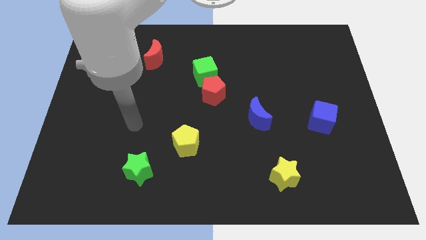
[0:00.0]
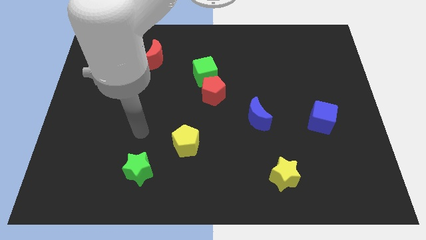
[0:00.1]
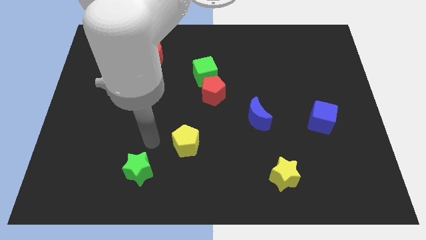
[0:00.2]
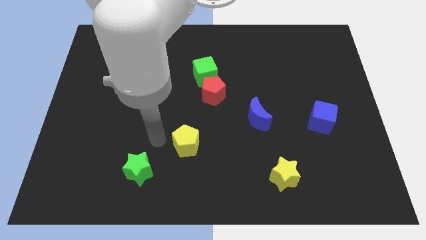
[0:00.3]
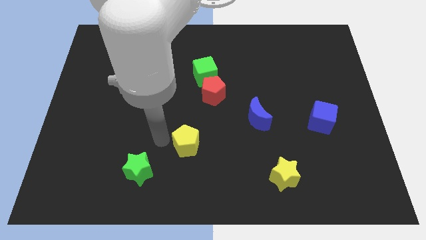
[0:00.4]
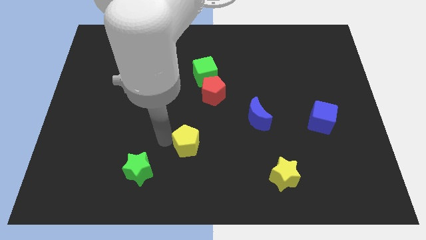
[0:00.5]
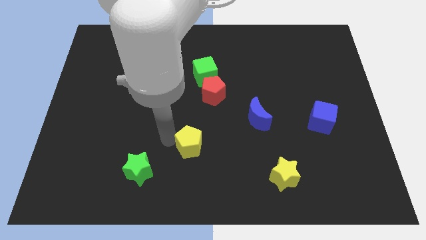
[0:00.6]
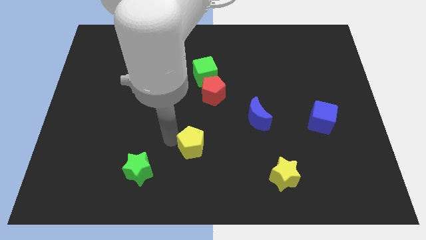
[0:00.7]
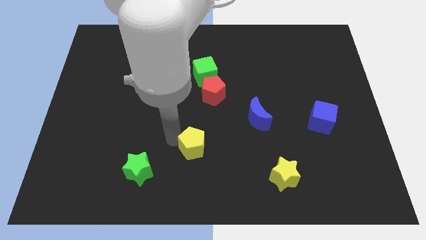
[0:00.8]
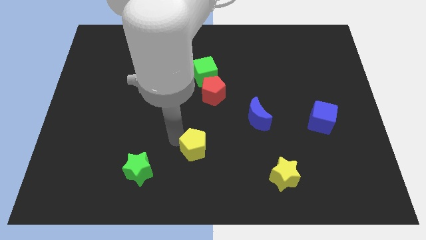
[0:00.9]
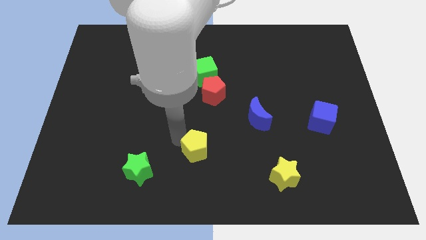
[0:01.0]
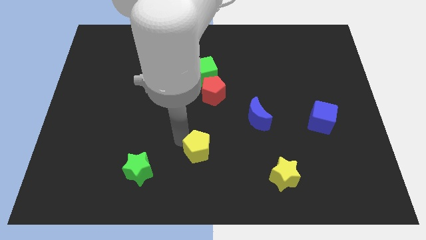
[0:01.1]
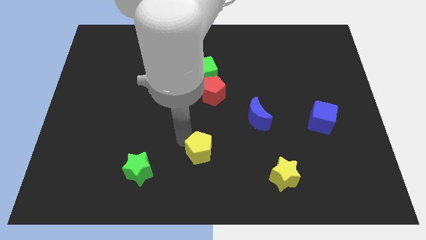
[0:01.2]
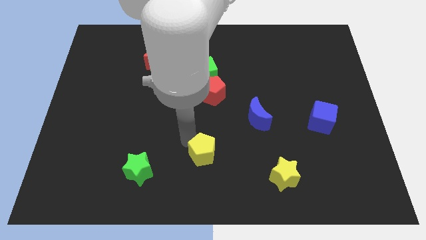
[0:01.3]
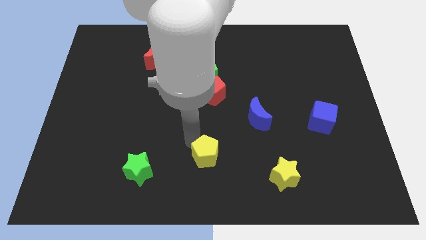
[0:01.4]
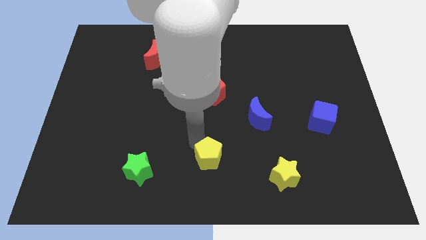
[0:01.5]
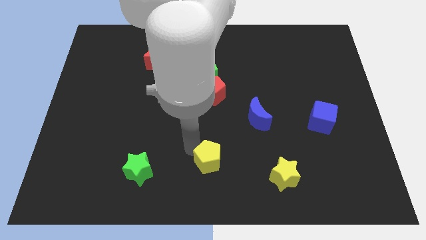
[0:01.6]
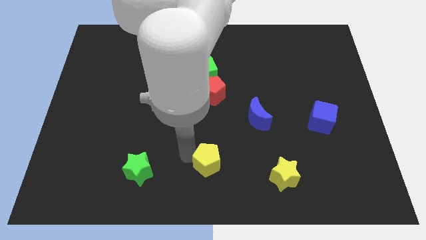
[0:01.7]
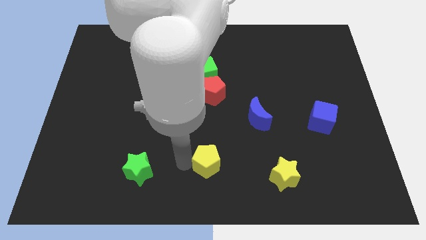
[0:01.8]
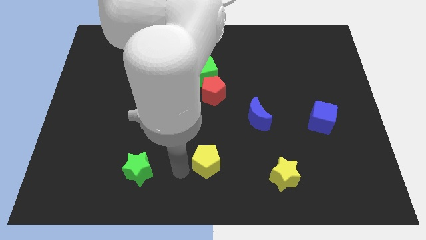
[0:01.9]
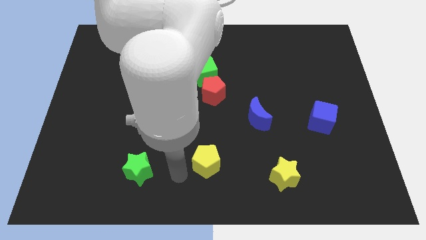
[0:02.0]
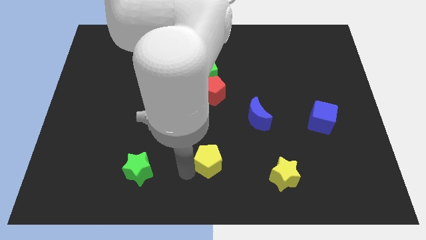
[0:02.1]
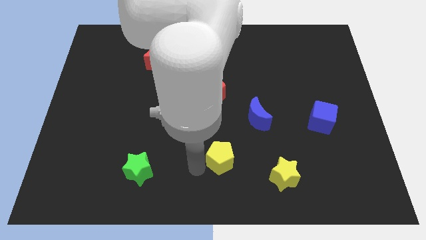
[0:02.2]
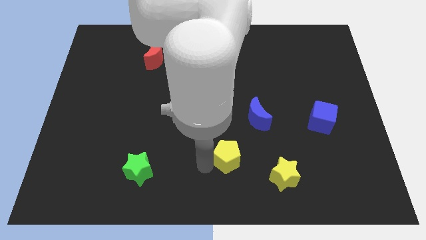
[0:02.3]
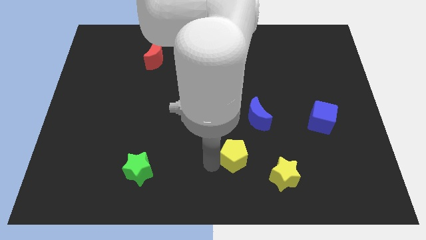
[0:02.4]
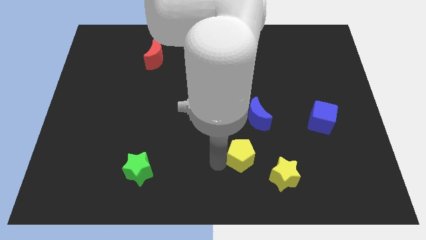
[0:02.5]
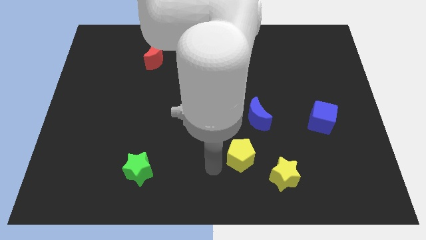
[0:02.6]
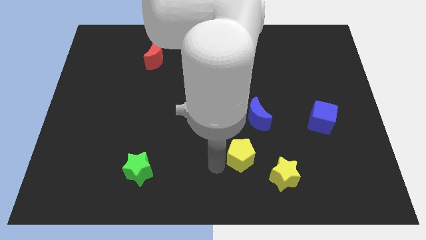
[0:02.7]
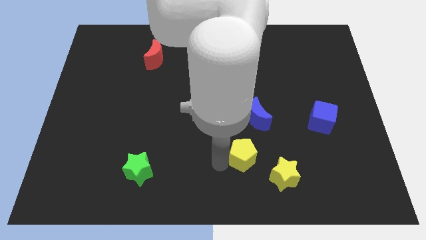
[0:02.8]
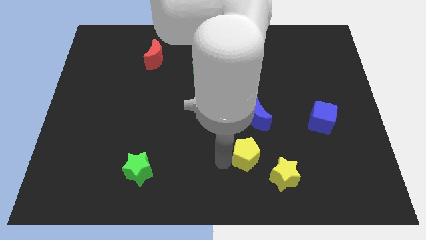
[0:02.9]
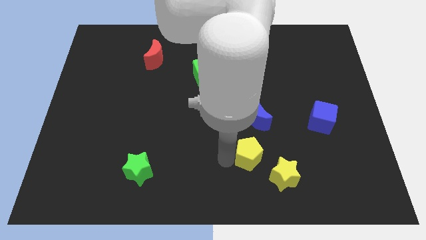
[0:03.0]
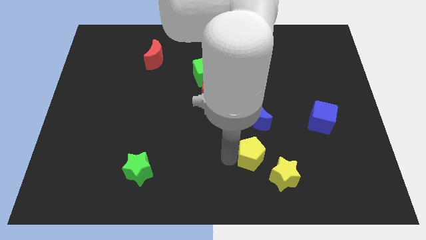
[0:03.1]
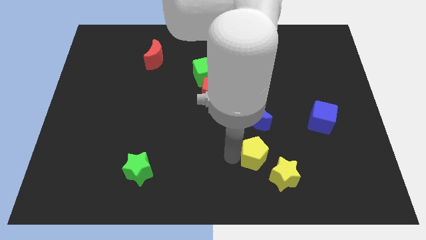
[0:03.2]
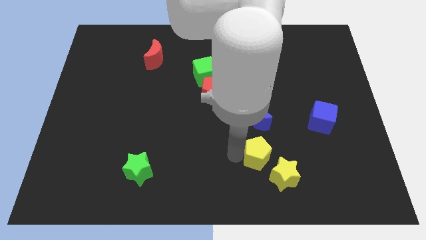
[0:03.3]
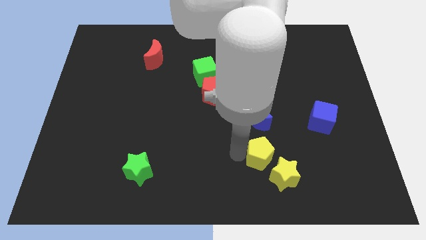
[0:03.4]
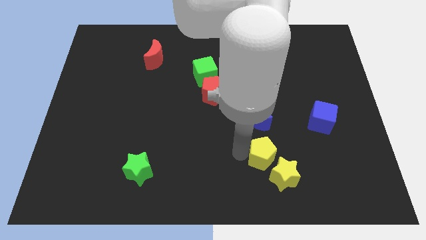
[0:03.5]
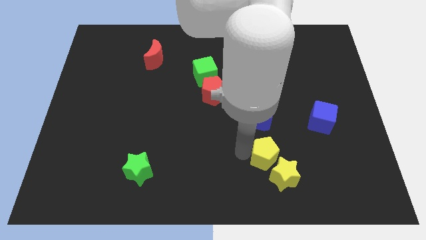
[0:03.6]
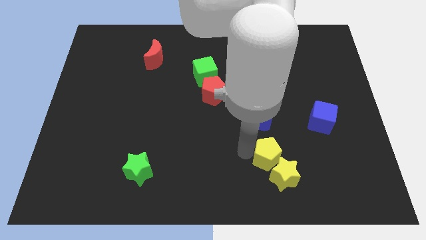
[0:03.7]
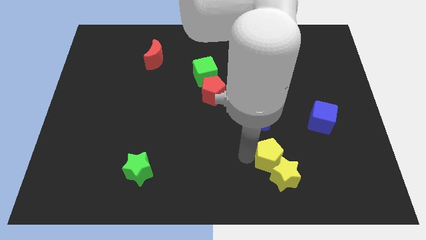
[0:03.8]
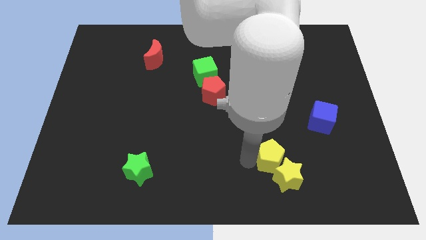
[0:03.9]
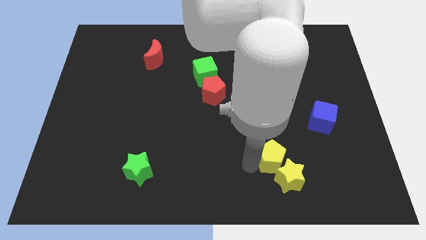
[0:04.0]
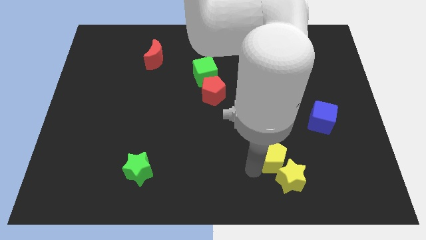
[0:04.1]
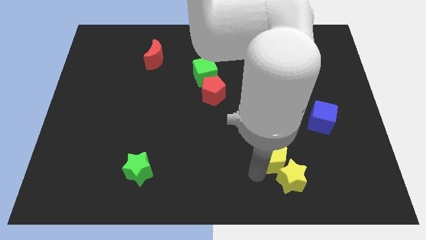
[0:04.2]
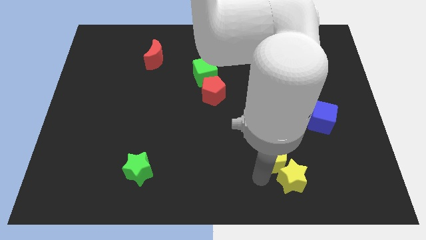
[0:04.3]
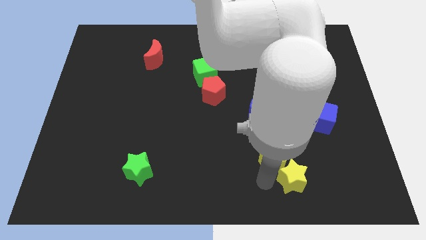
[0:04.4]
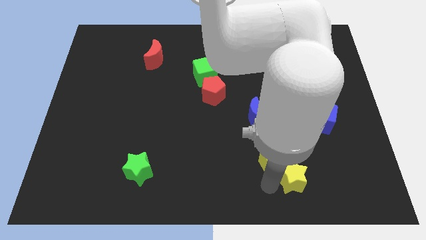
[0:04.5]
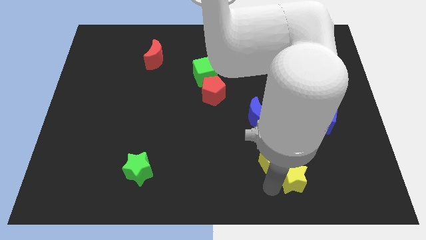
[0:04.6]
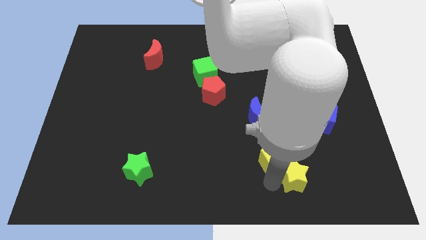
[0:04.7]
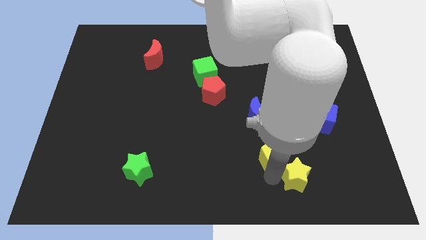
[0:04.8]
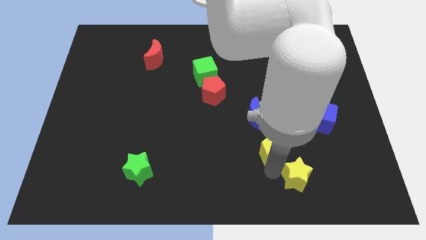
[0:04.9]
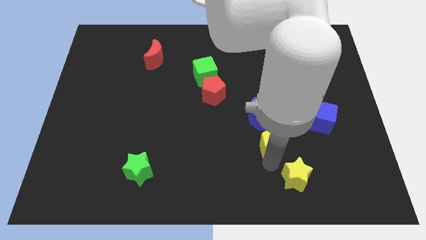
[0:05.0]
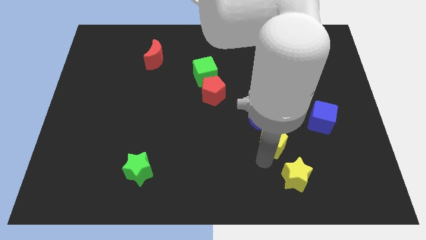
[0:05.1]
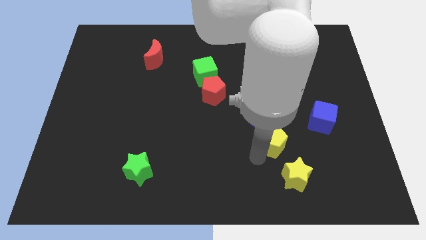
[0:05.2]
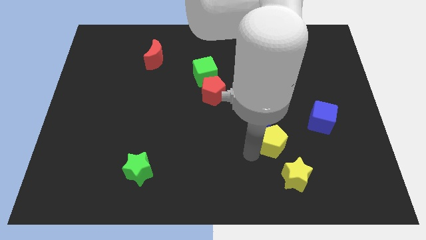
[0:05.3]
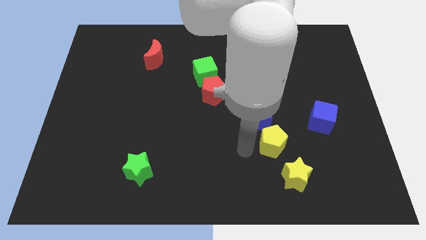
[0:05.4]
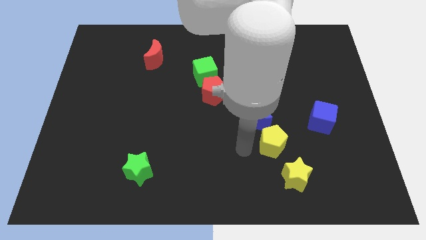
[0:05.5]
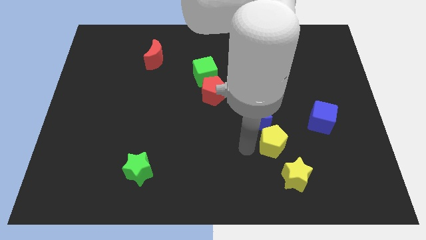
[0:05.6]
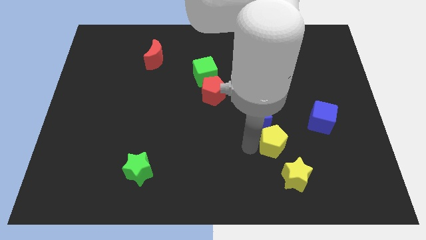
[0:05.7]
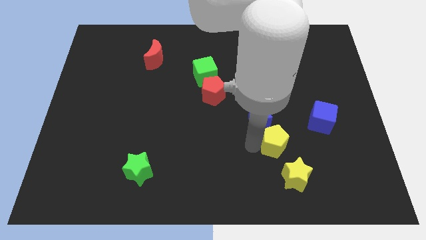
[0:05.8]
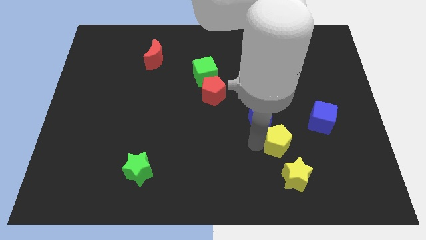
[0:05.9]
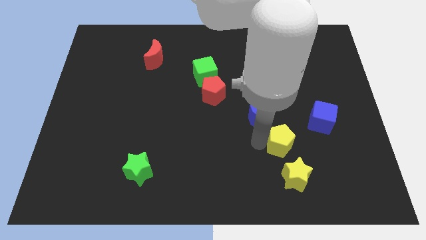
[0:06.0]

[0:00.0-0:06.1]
push the yellow pentagon to the bottom left side of the blue cube

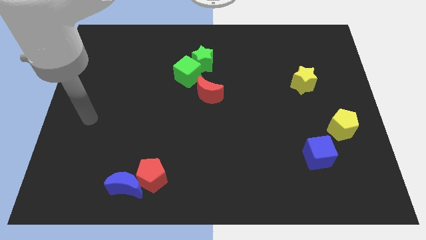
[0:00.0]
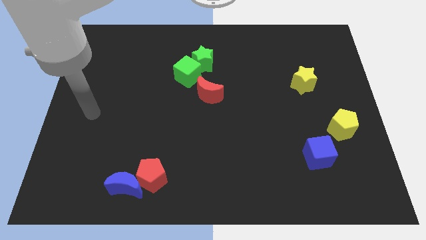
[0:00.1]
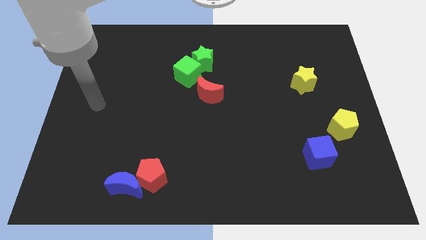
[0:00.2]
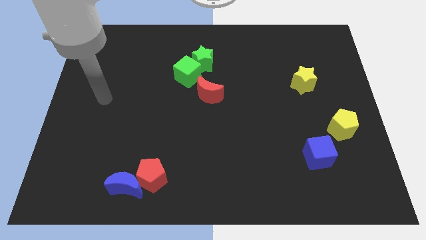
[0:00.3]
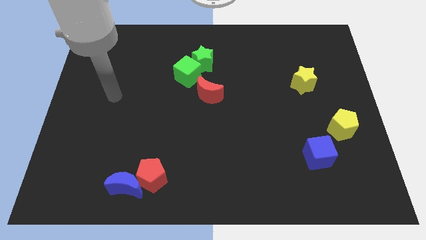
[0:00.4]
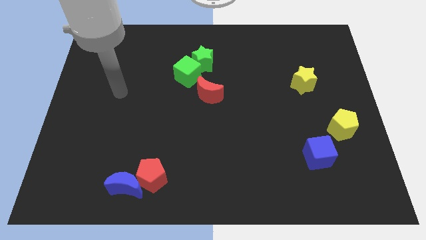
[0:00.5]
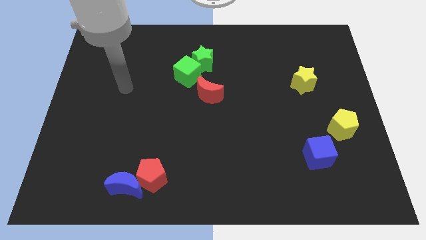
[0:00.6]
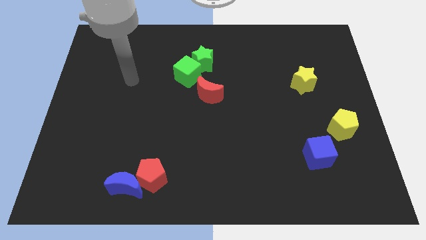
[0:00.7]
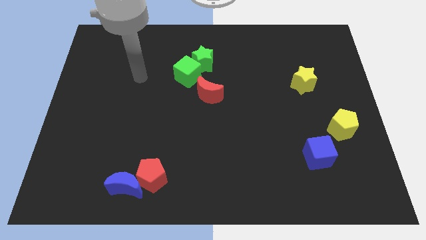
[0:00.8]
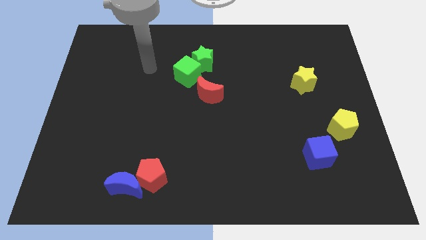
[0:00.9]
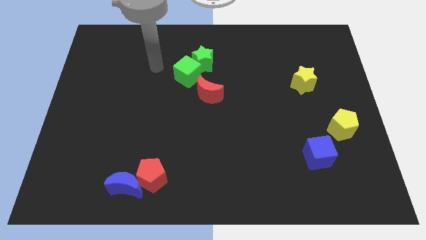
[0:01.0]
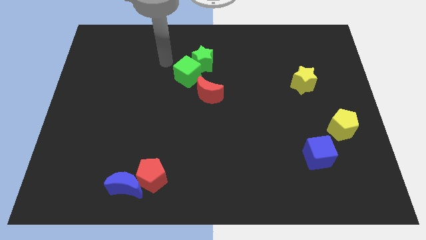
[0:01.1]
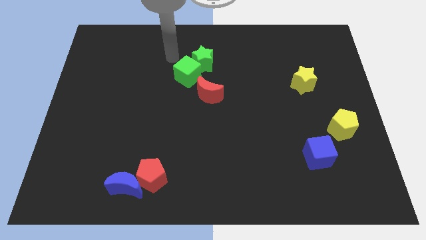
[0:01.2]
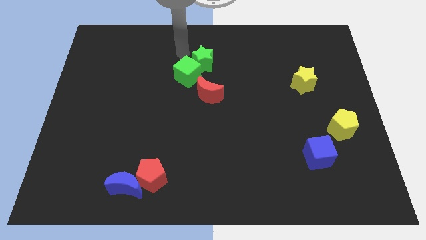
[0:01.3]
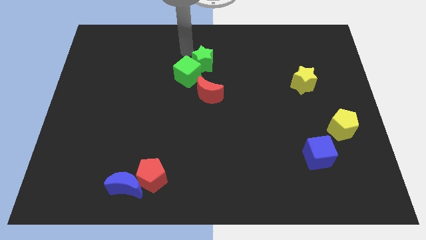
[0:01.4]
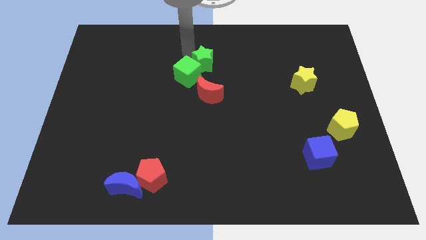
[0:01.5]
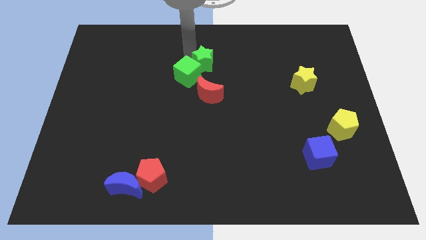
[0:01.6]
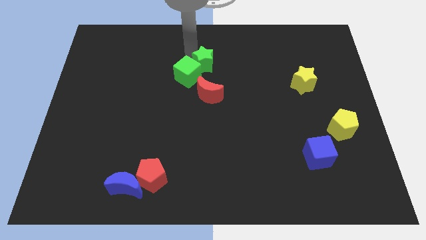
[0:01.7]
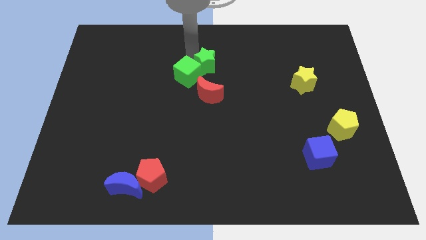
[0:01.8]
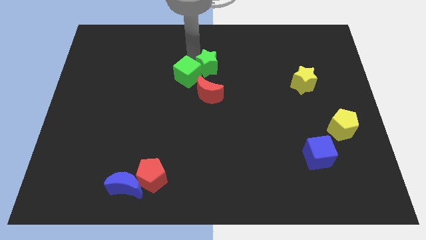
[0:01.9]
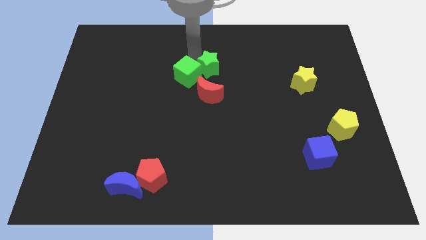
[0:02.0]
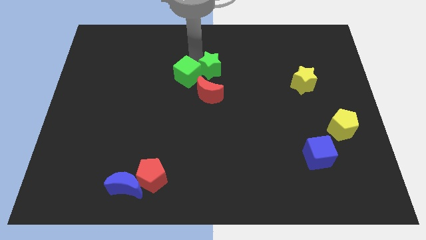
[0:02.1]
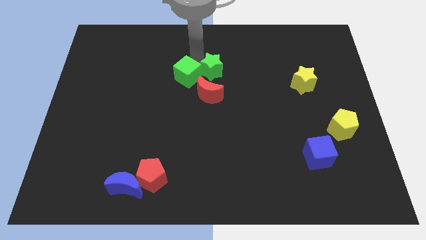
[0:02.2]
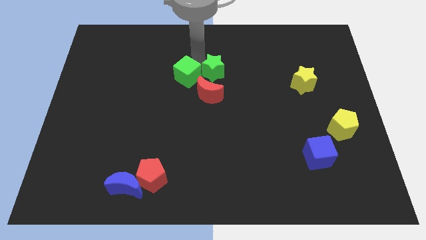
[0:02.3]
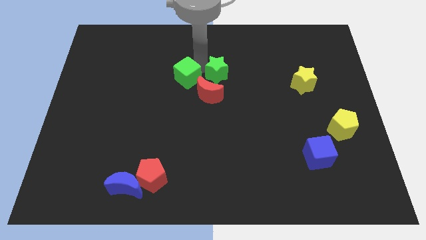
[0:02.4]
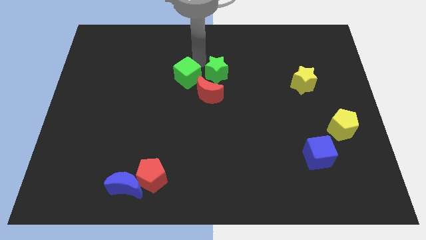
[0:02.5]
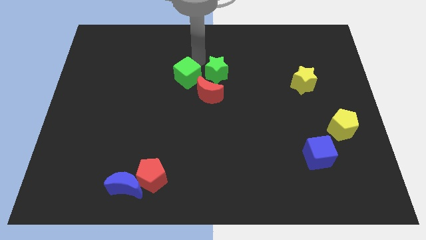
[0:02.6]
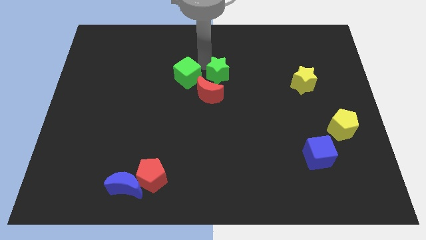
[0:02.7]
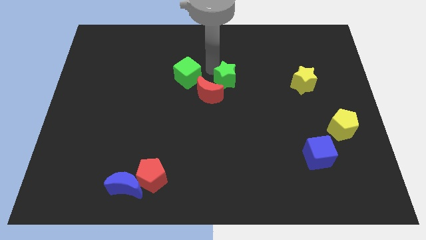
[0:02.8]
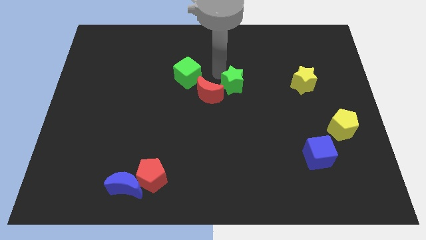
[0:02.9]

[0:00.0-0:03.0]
move the green star right of the red moon
